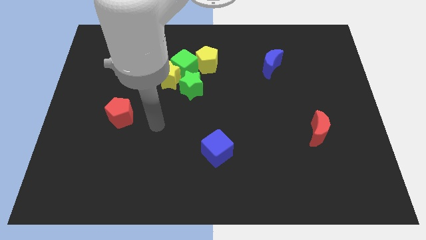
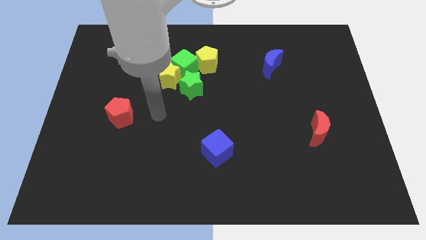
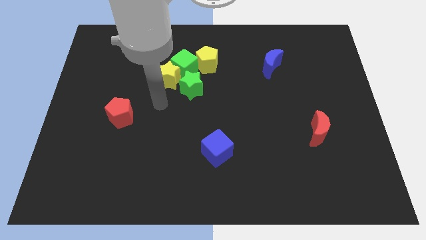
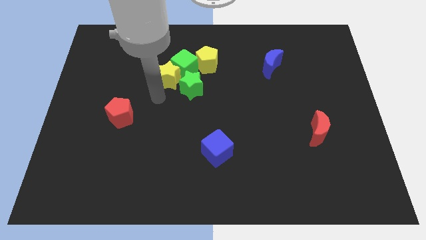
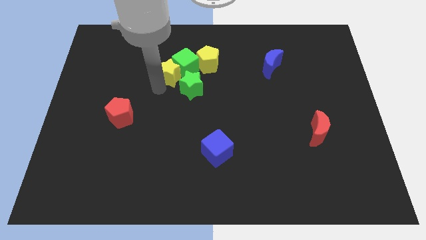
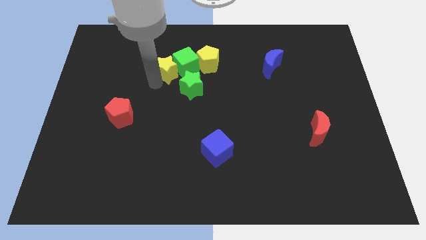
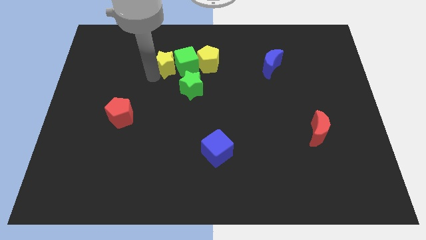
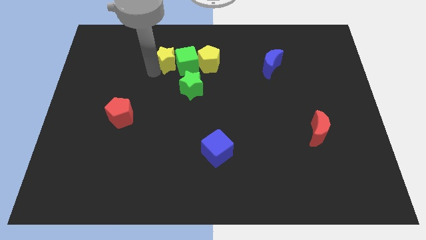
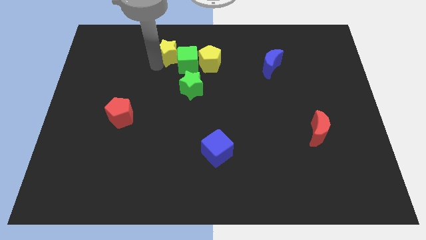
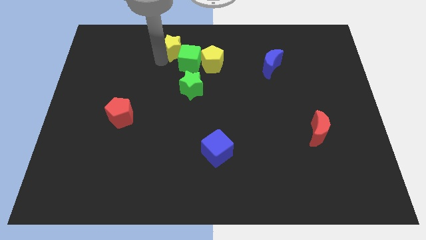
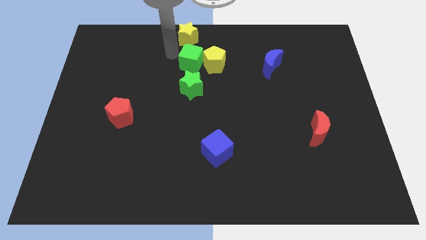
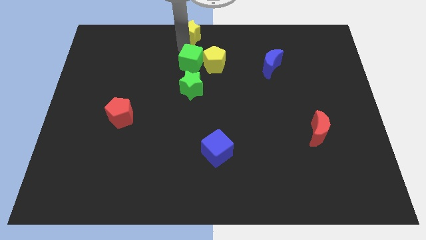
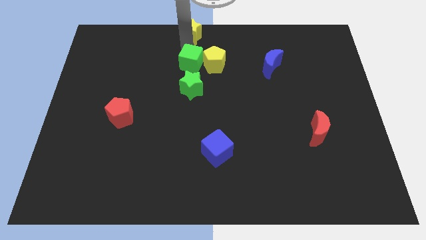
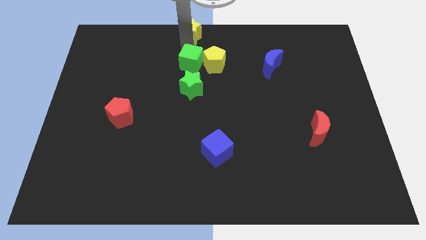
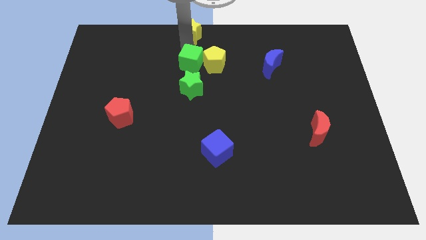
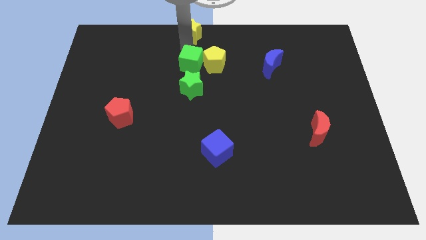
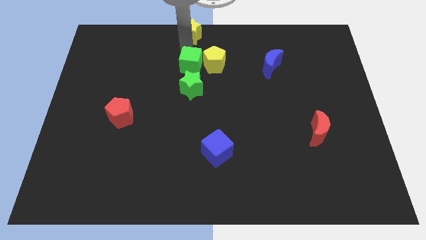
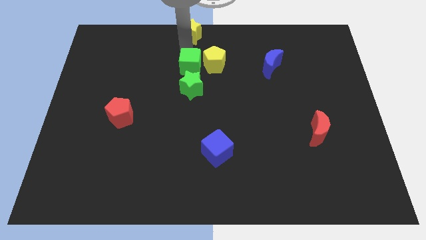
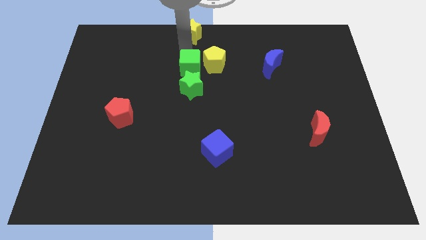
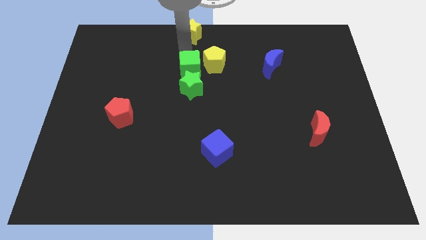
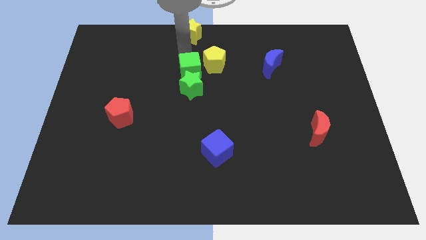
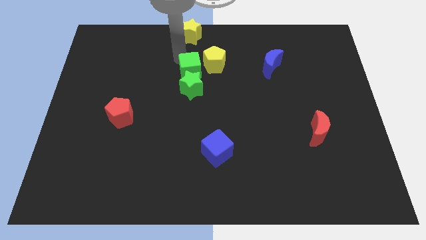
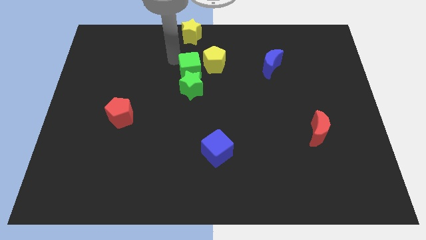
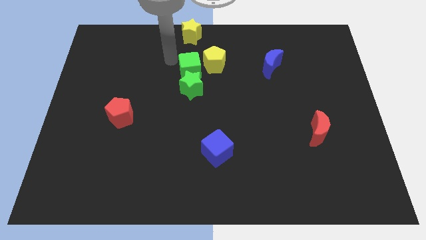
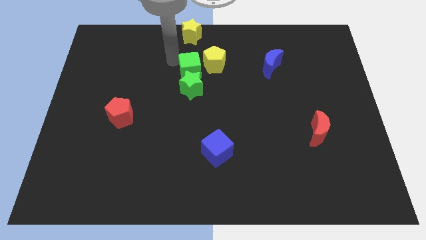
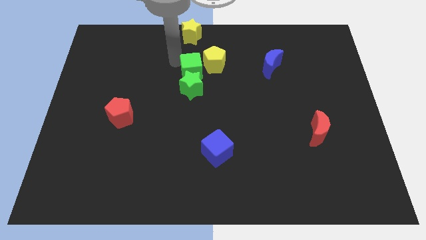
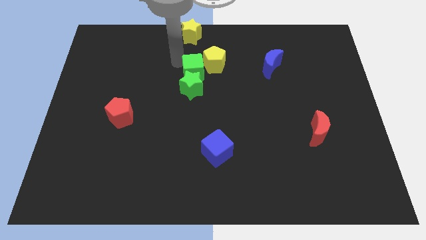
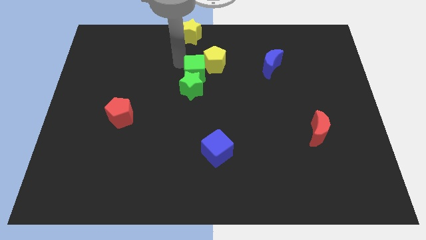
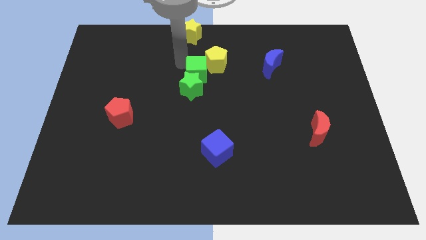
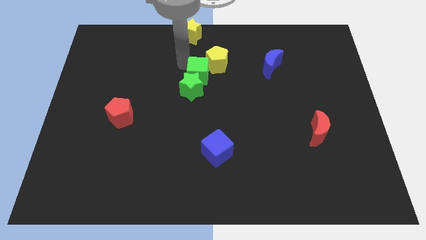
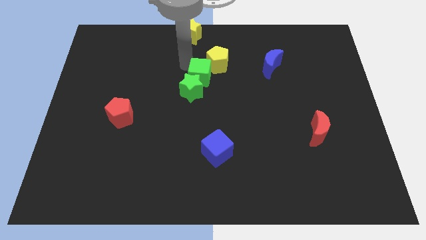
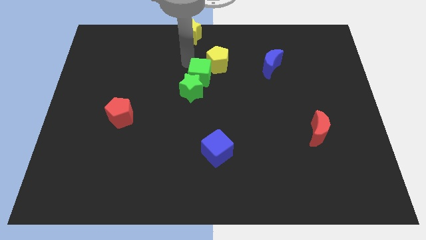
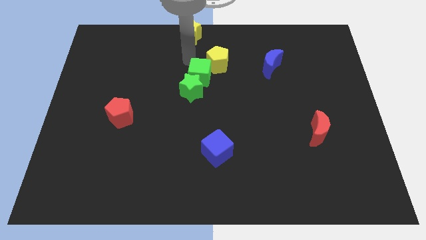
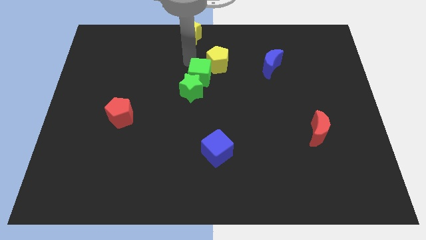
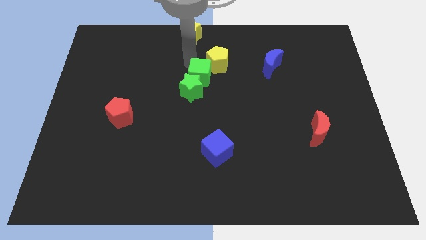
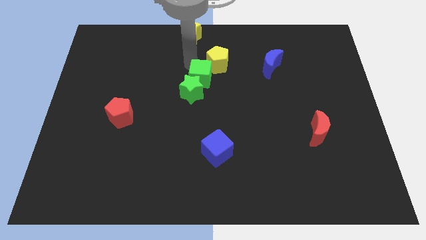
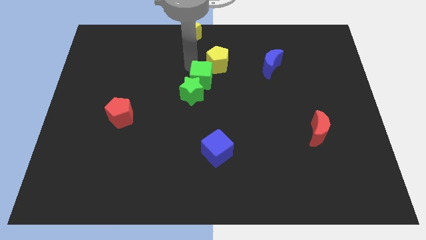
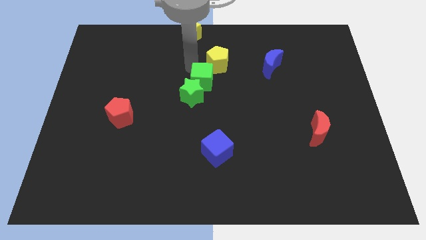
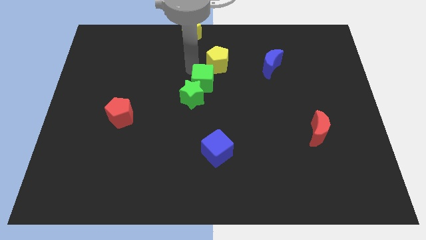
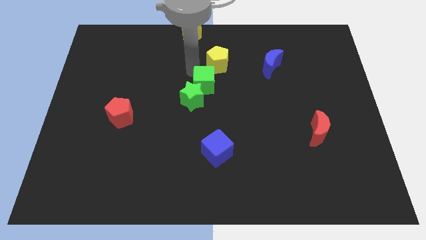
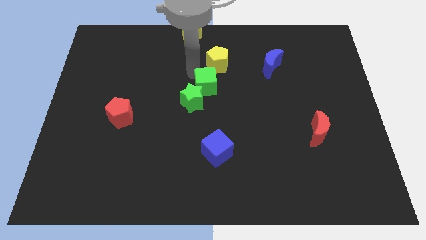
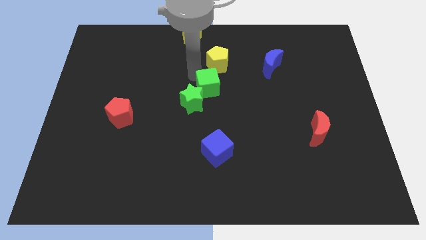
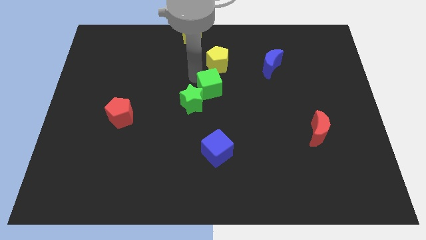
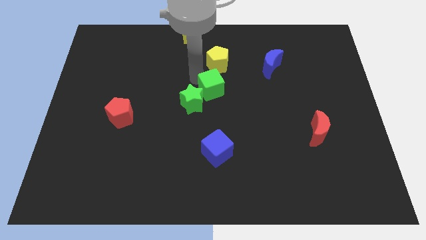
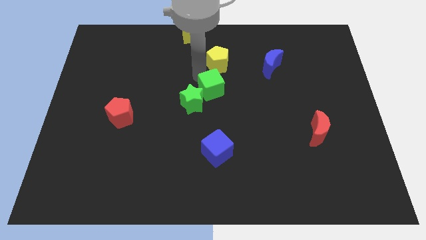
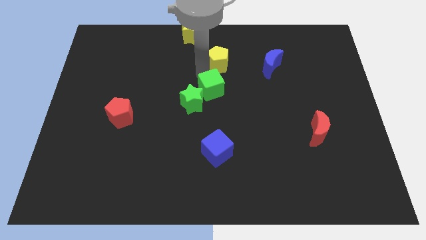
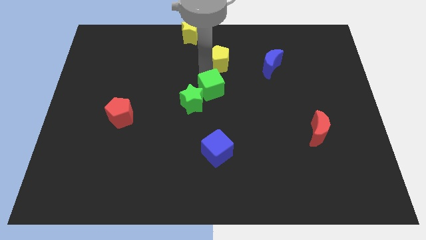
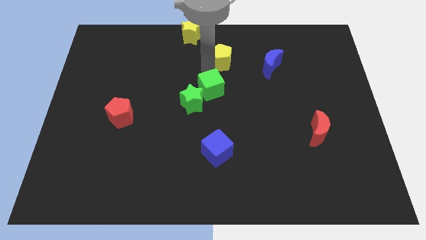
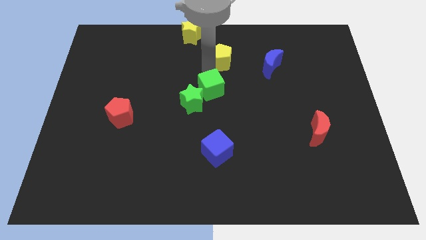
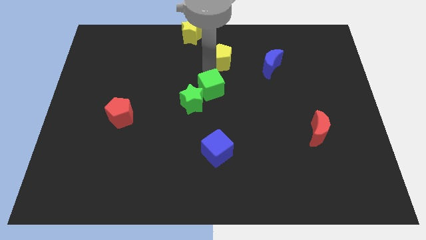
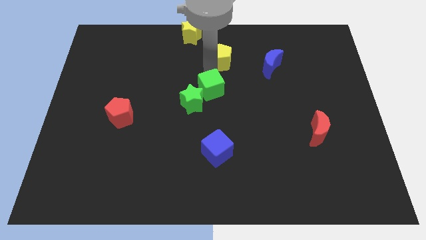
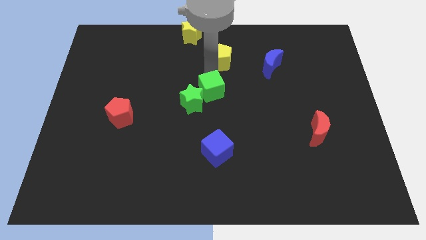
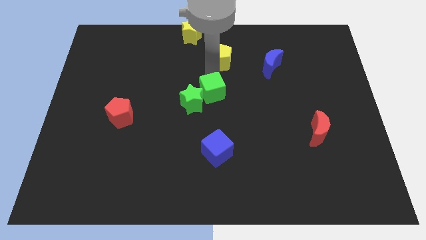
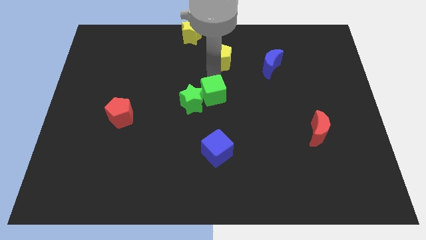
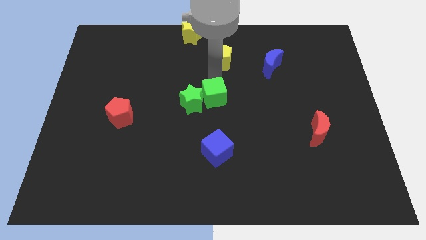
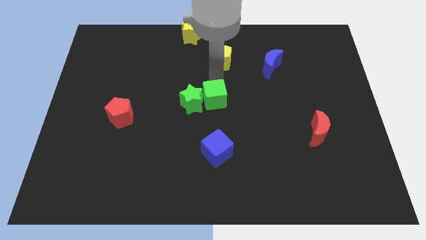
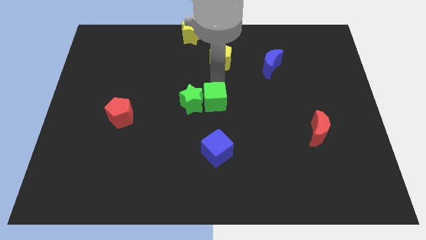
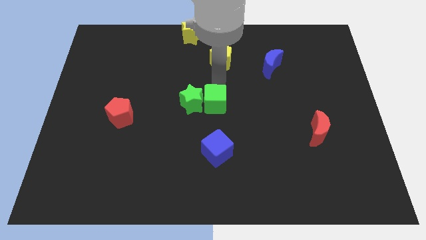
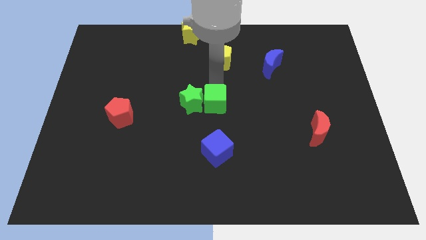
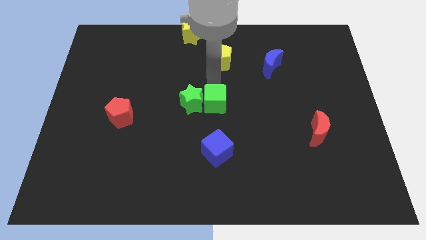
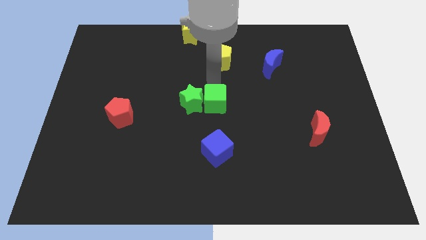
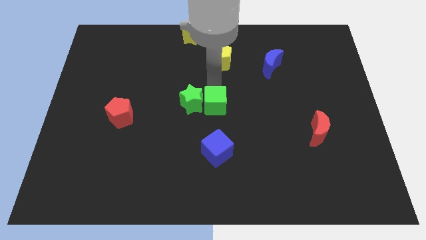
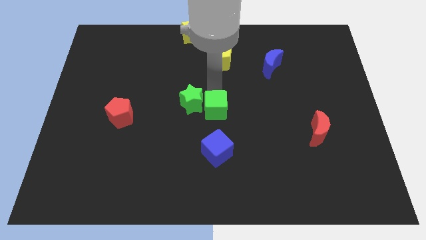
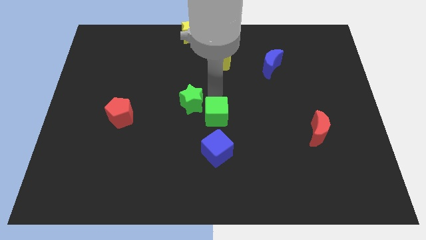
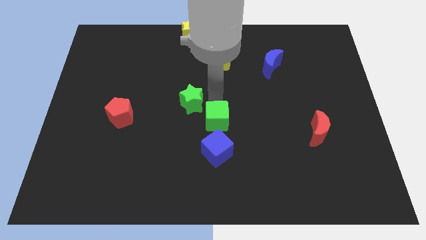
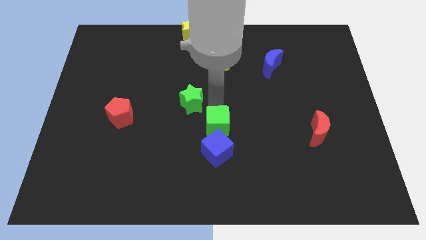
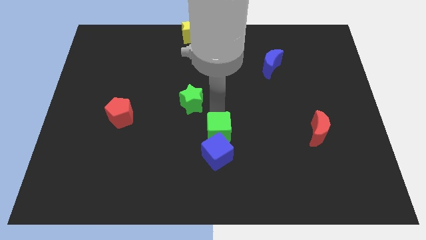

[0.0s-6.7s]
push the green cube towards the blue cube

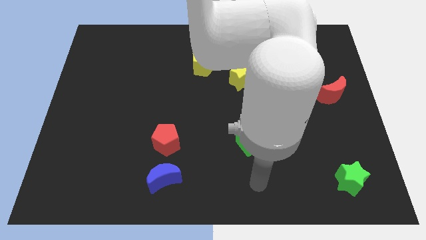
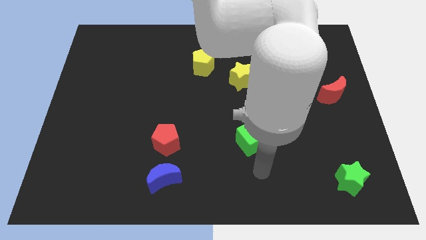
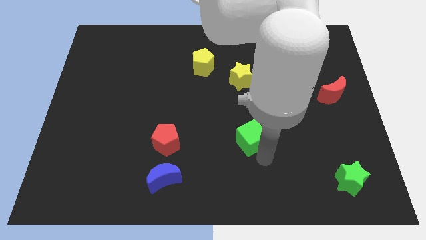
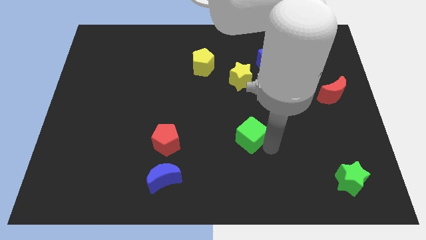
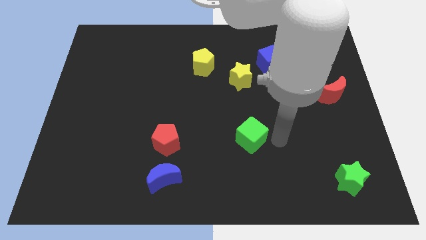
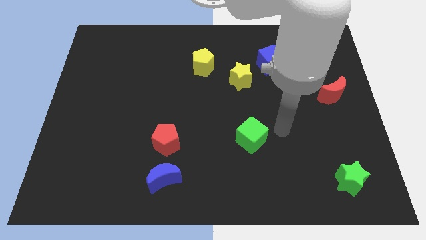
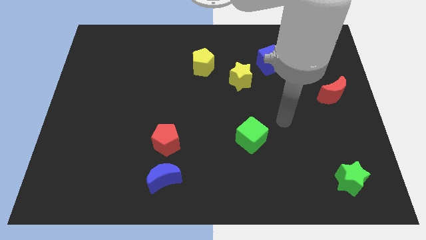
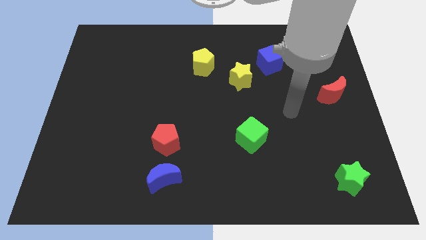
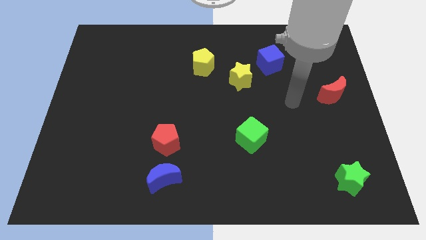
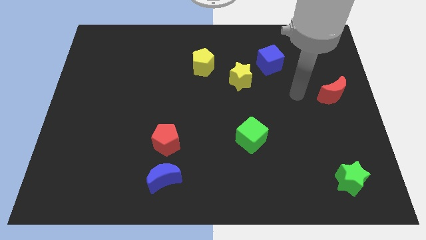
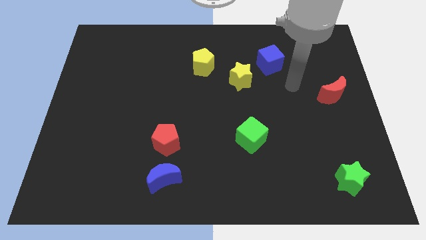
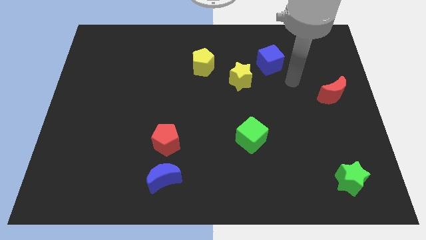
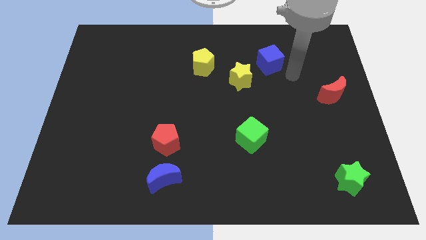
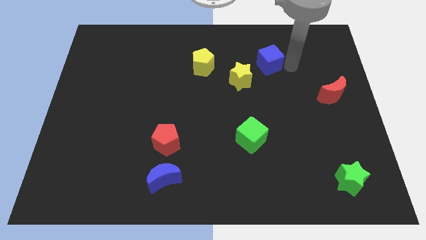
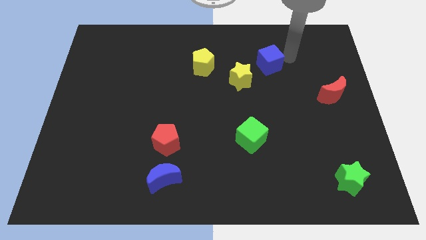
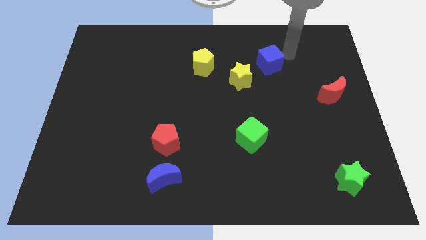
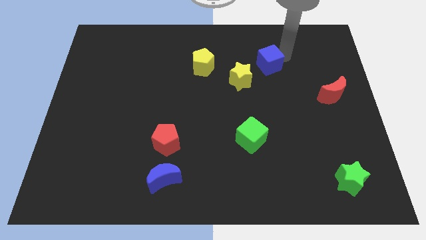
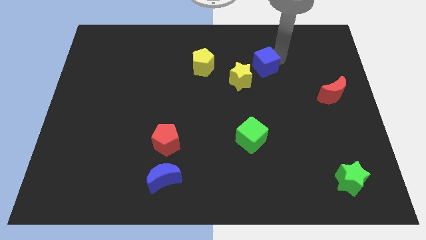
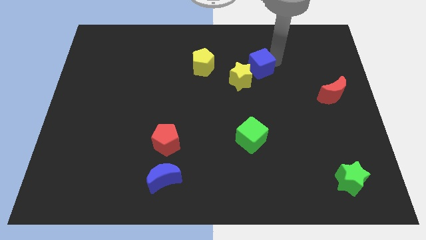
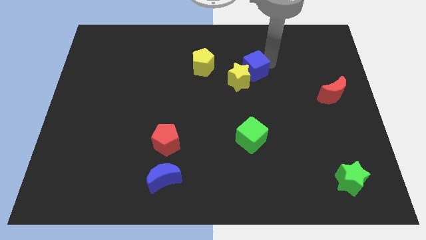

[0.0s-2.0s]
move the blue cube to the yellow star
